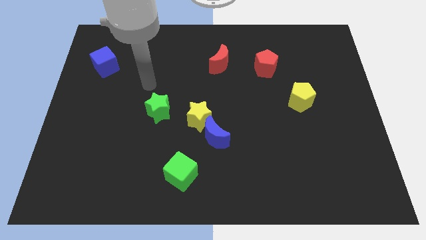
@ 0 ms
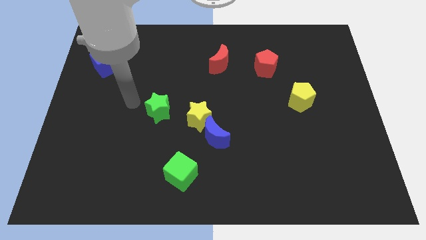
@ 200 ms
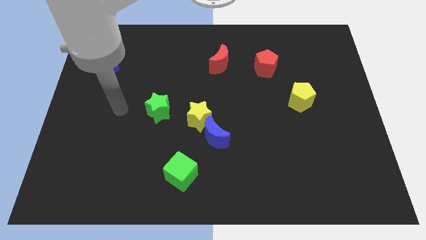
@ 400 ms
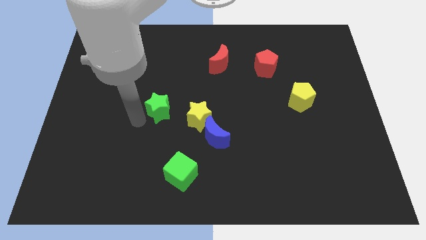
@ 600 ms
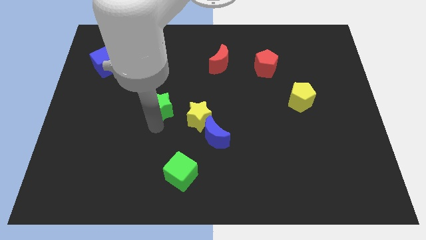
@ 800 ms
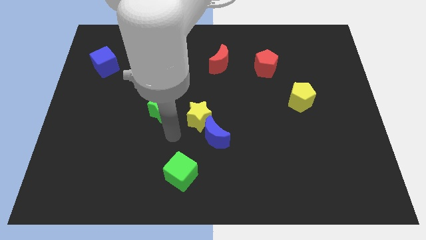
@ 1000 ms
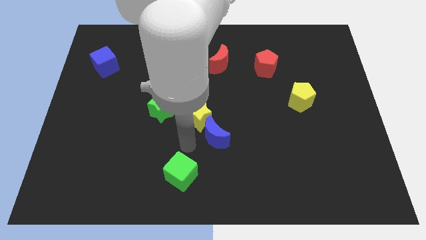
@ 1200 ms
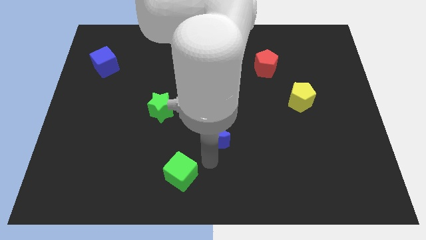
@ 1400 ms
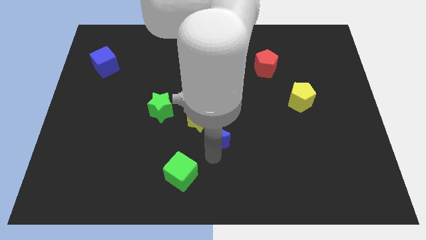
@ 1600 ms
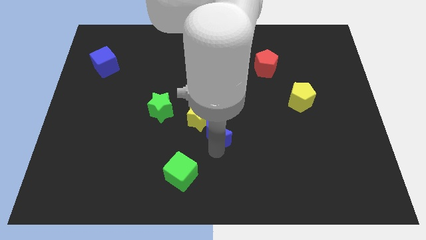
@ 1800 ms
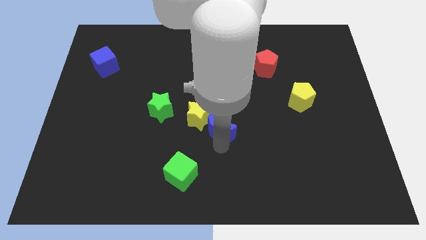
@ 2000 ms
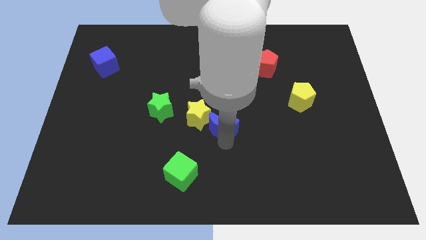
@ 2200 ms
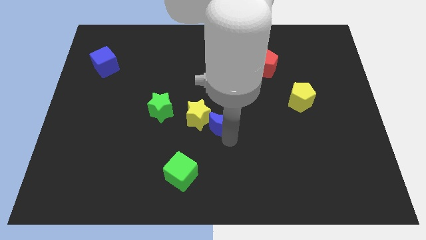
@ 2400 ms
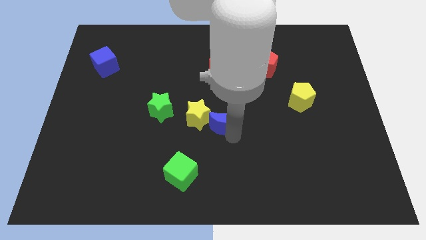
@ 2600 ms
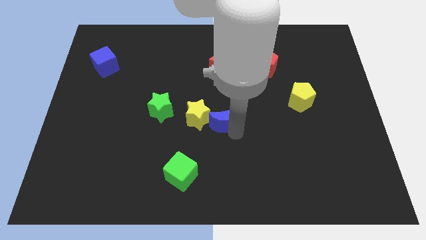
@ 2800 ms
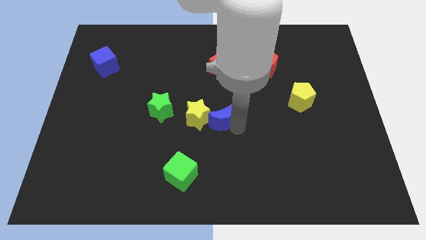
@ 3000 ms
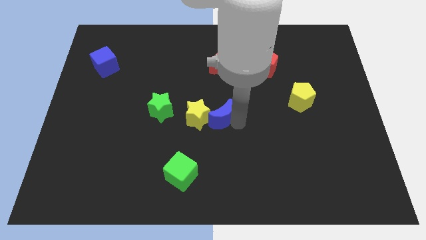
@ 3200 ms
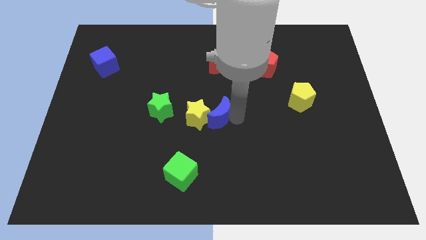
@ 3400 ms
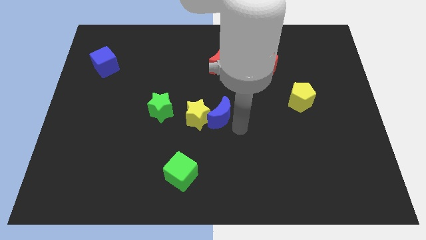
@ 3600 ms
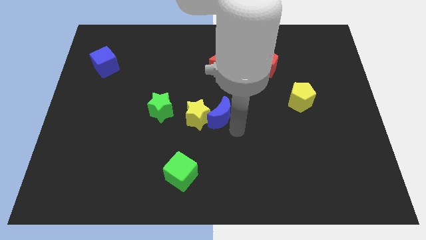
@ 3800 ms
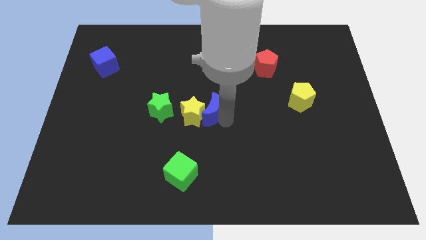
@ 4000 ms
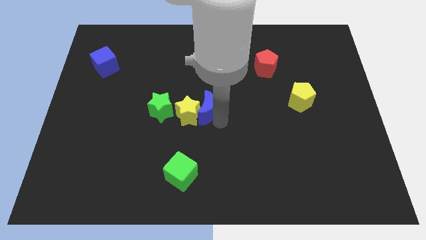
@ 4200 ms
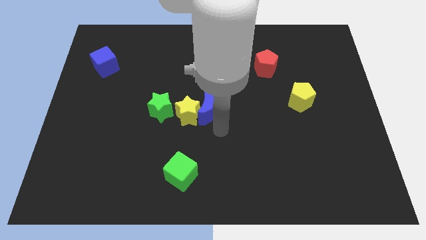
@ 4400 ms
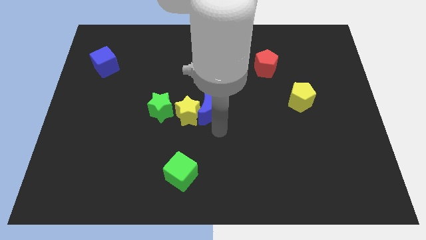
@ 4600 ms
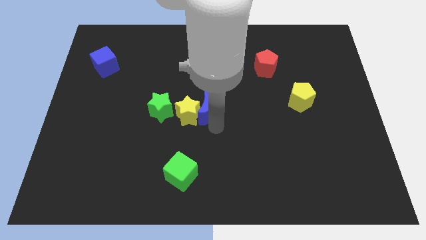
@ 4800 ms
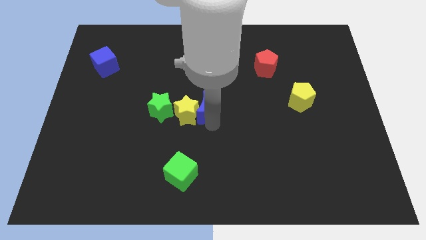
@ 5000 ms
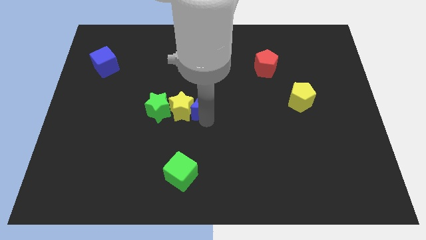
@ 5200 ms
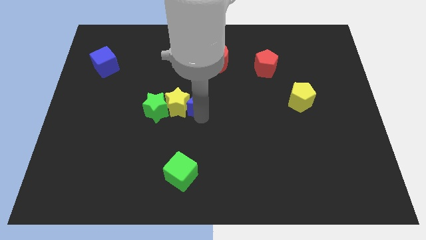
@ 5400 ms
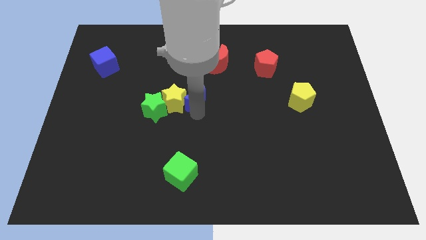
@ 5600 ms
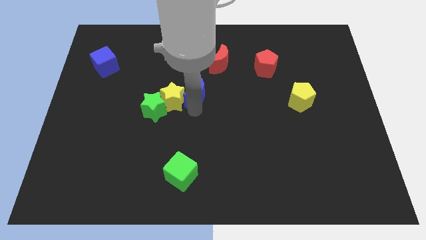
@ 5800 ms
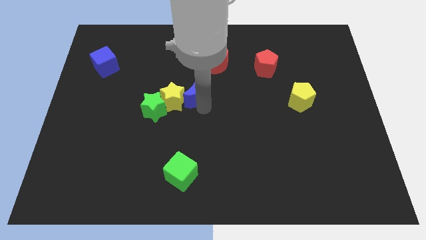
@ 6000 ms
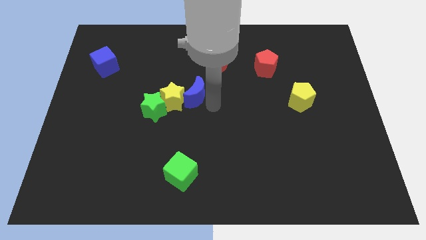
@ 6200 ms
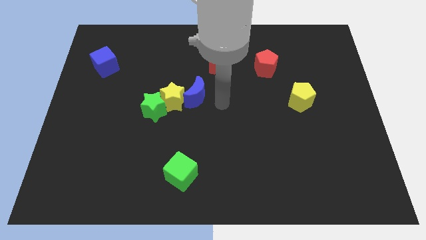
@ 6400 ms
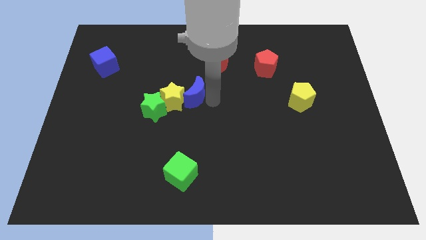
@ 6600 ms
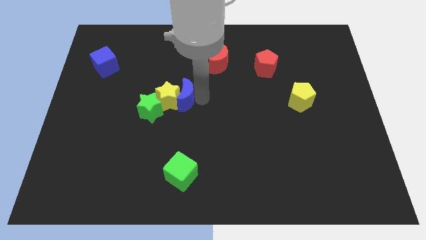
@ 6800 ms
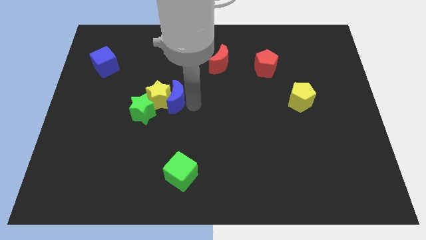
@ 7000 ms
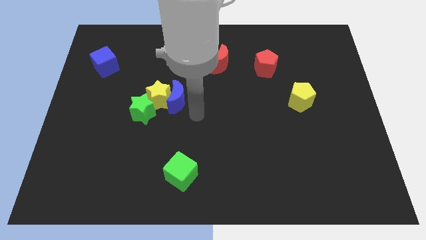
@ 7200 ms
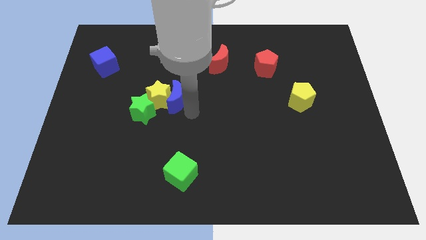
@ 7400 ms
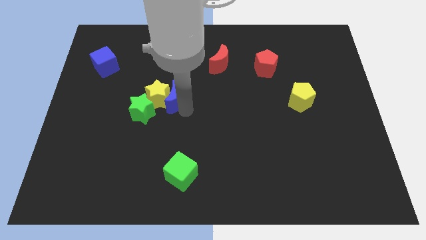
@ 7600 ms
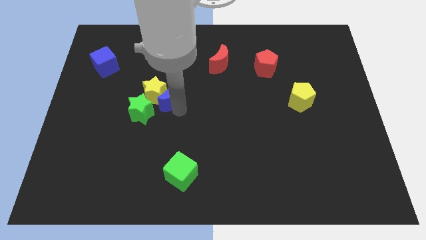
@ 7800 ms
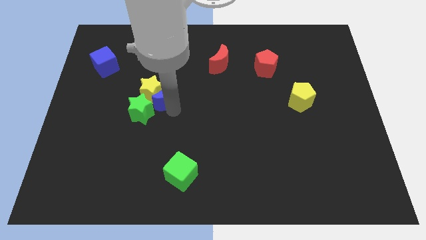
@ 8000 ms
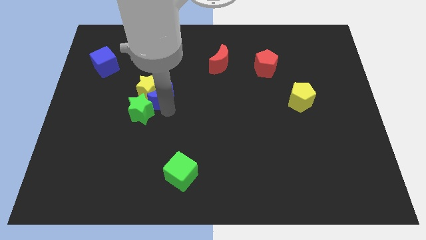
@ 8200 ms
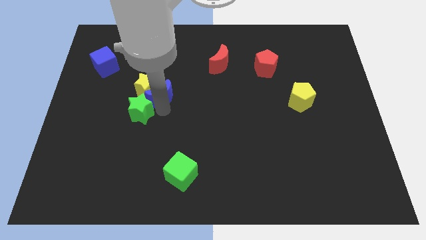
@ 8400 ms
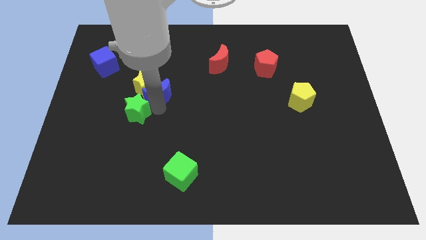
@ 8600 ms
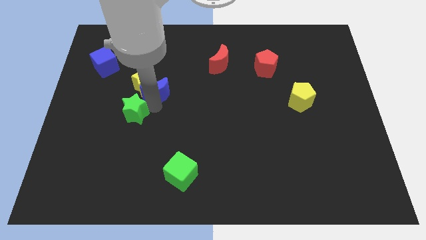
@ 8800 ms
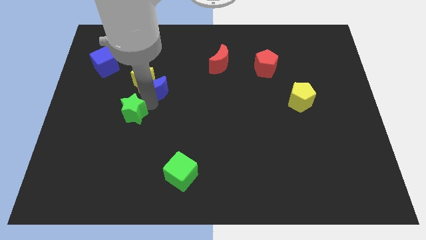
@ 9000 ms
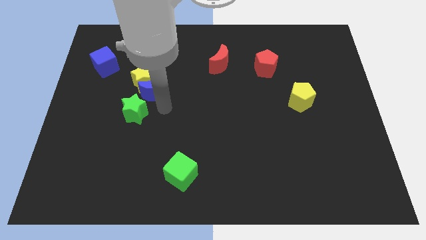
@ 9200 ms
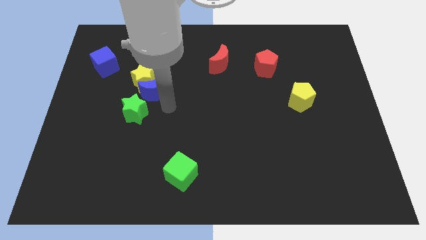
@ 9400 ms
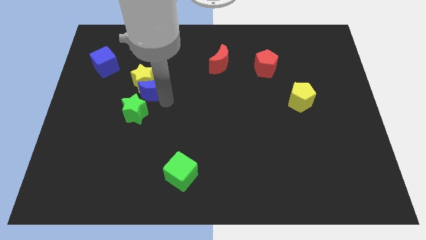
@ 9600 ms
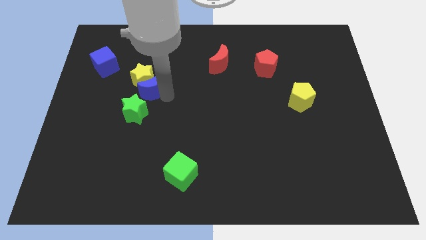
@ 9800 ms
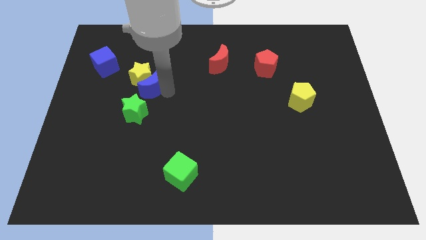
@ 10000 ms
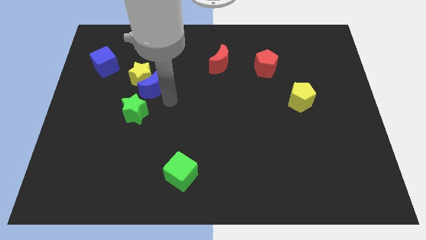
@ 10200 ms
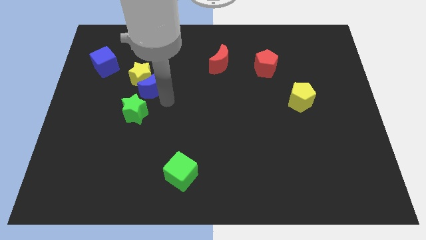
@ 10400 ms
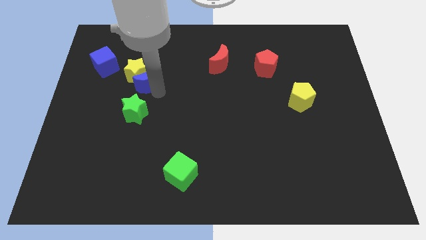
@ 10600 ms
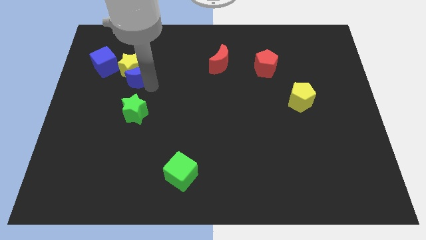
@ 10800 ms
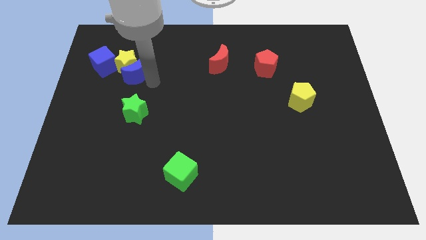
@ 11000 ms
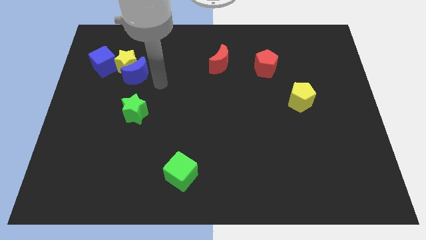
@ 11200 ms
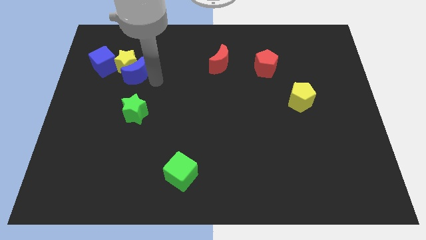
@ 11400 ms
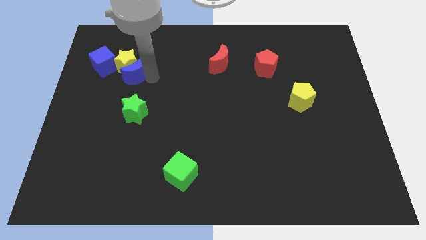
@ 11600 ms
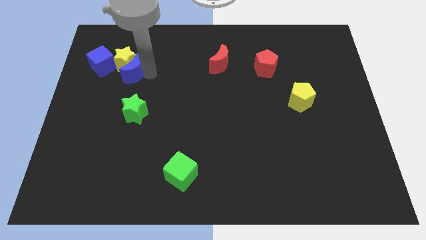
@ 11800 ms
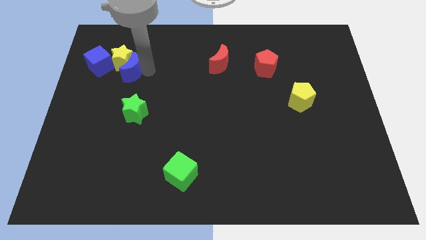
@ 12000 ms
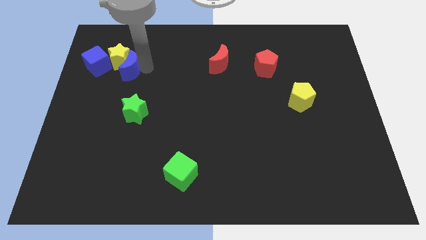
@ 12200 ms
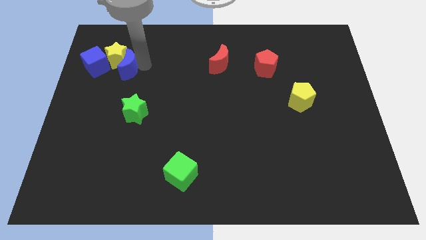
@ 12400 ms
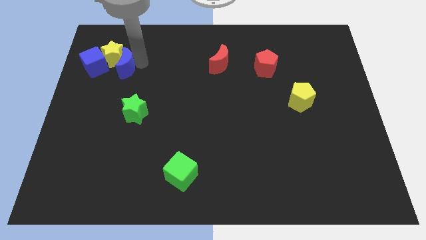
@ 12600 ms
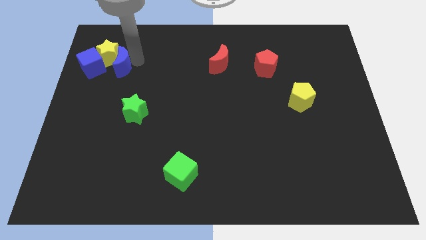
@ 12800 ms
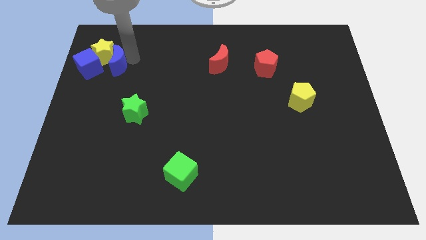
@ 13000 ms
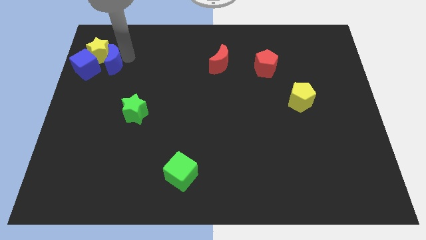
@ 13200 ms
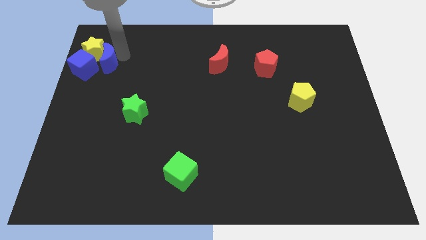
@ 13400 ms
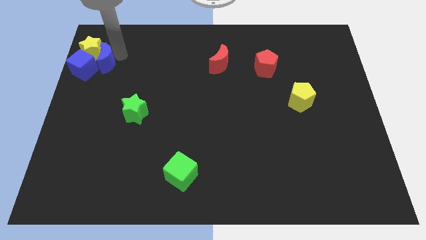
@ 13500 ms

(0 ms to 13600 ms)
put the blue moon towards the blue cube
